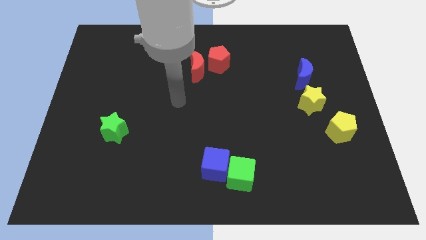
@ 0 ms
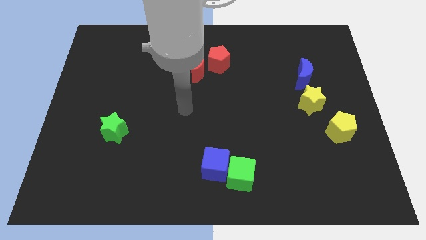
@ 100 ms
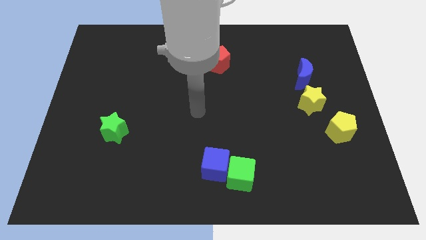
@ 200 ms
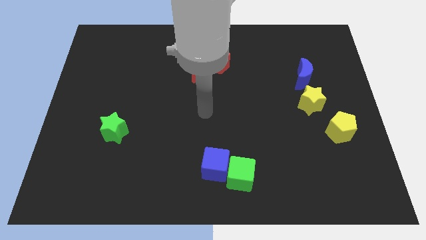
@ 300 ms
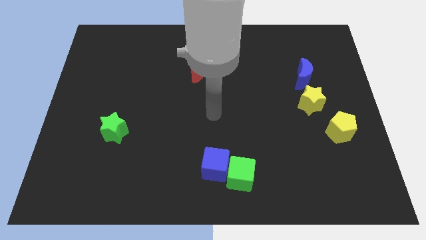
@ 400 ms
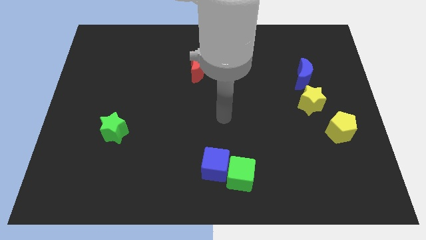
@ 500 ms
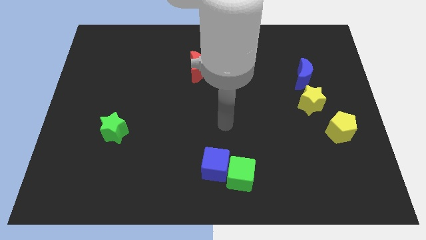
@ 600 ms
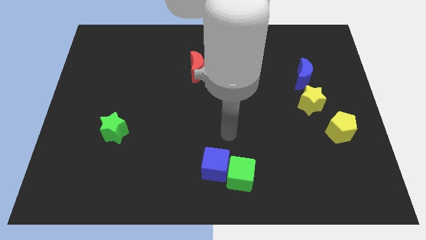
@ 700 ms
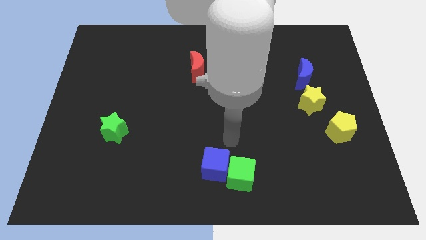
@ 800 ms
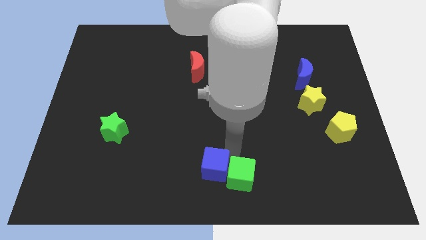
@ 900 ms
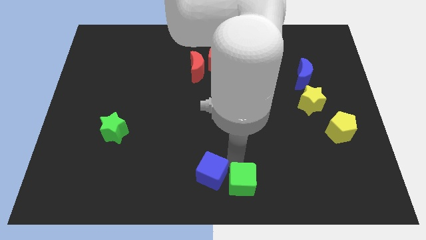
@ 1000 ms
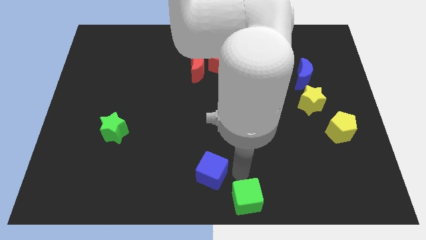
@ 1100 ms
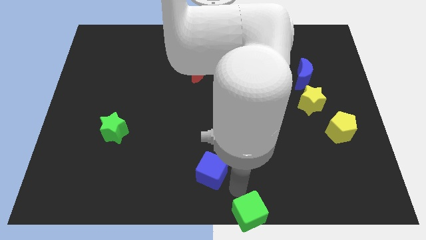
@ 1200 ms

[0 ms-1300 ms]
move the blue cube away from the green cube

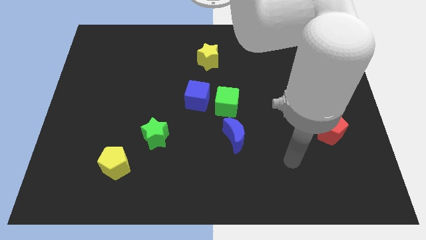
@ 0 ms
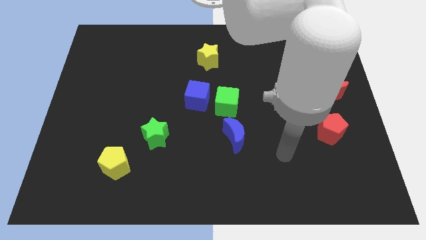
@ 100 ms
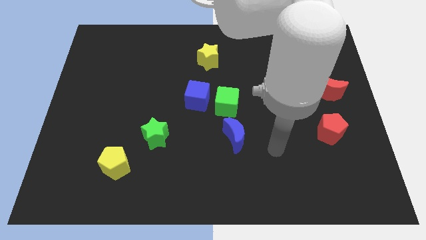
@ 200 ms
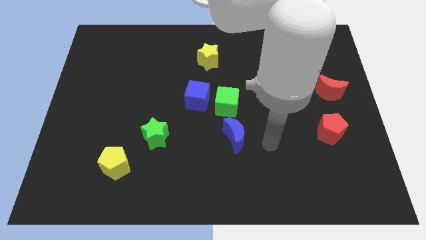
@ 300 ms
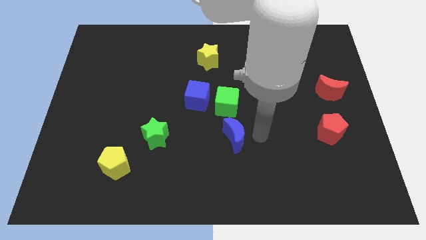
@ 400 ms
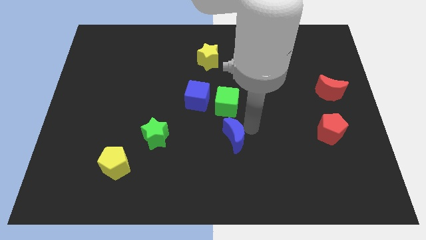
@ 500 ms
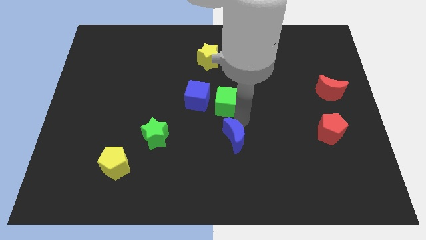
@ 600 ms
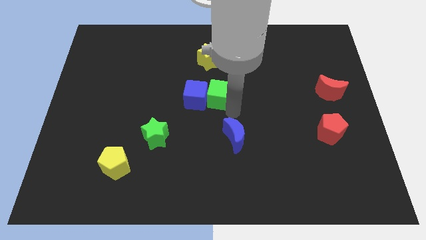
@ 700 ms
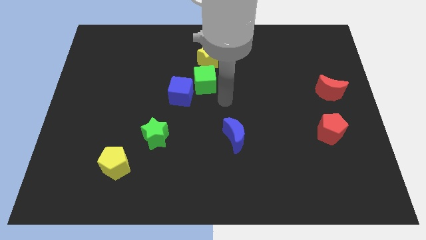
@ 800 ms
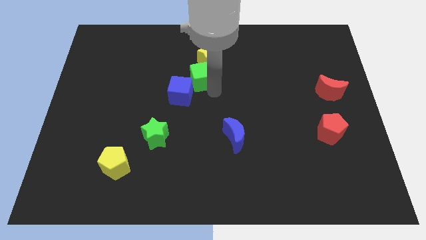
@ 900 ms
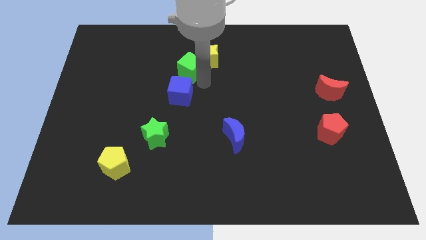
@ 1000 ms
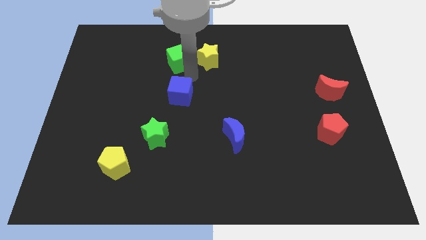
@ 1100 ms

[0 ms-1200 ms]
separate the blue cube from the green cube

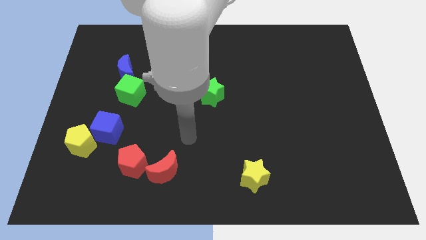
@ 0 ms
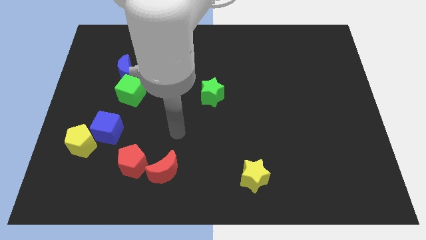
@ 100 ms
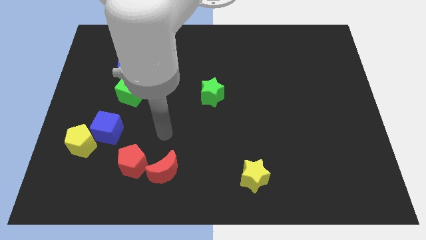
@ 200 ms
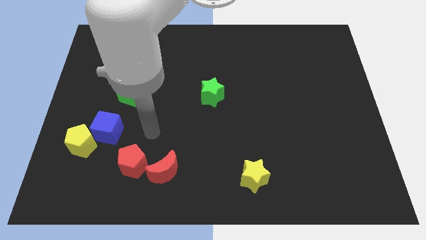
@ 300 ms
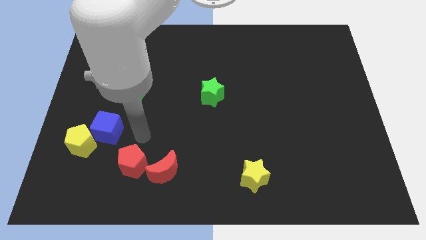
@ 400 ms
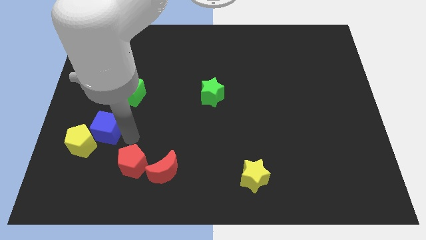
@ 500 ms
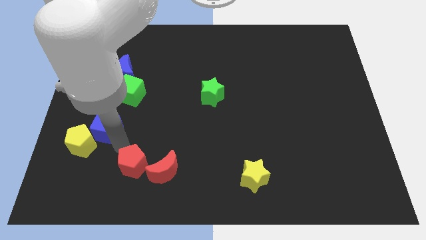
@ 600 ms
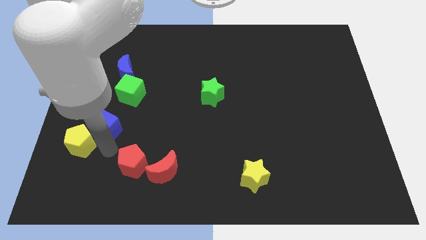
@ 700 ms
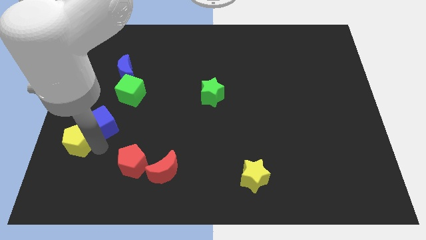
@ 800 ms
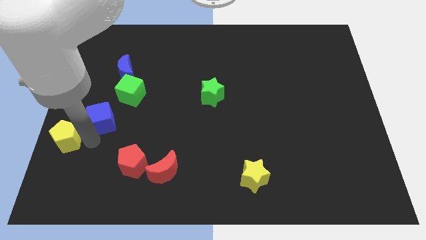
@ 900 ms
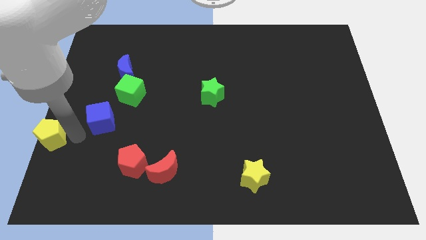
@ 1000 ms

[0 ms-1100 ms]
separate the blue cube from the yellow pentagon

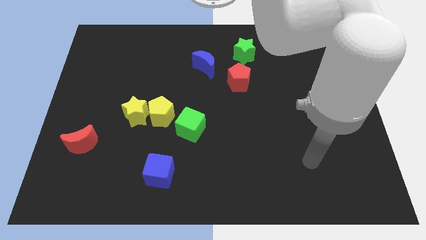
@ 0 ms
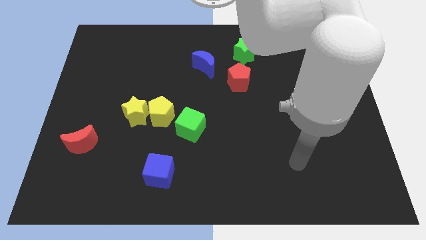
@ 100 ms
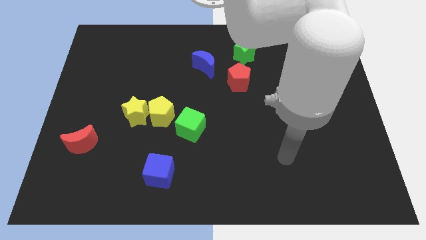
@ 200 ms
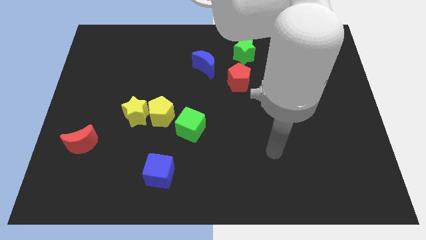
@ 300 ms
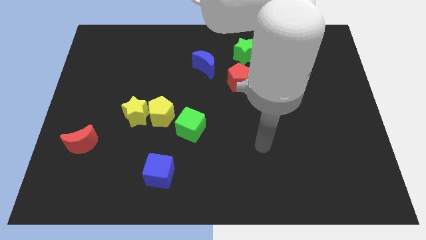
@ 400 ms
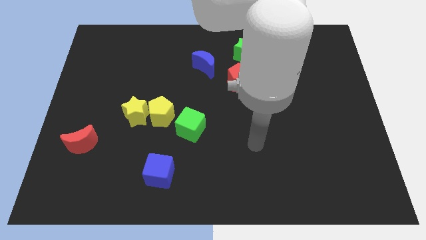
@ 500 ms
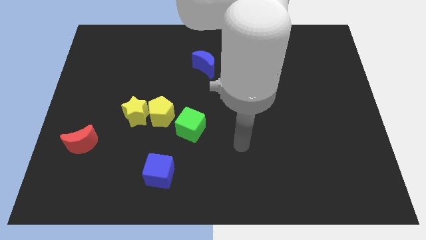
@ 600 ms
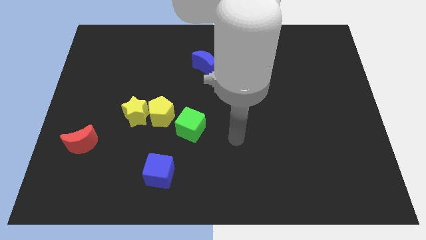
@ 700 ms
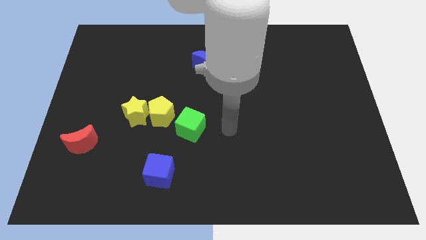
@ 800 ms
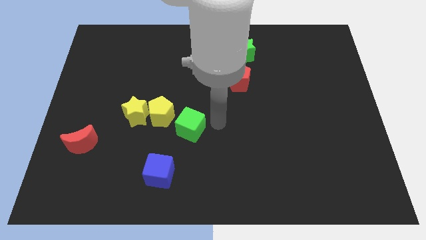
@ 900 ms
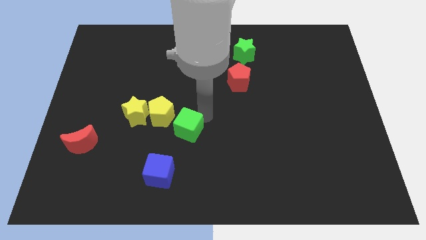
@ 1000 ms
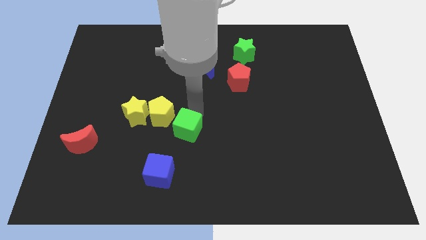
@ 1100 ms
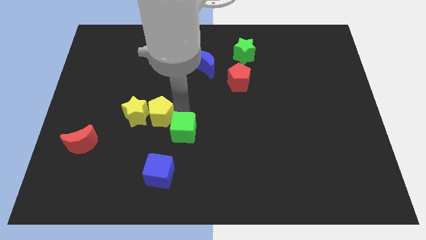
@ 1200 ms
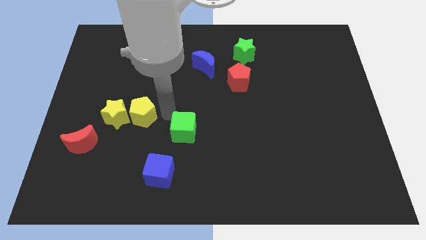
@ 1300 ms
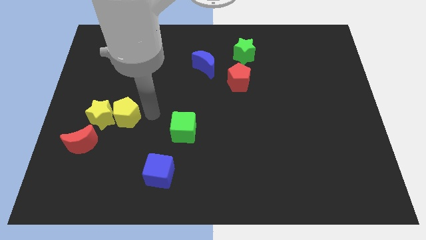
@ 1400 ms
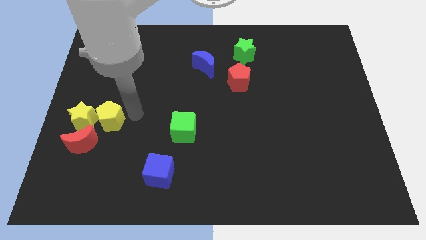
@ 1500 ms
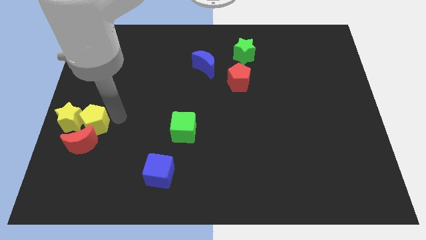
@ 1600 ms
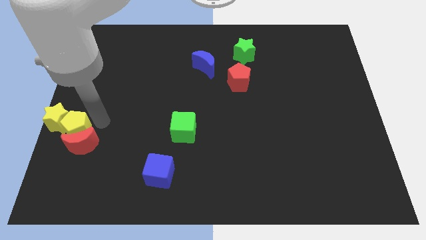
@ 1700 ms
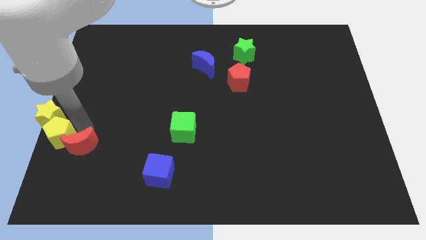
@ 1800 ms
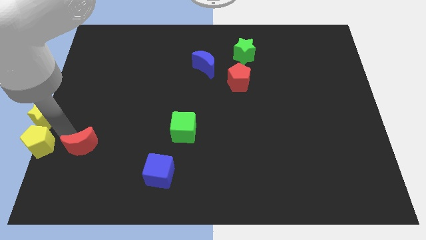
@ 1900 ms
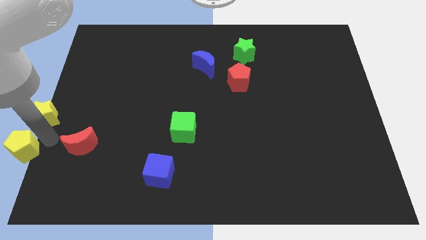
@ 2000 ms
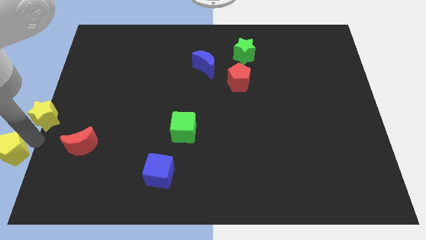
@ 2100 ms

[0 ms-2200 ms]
move the yellow star away from the yellow pentagon

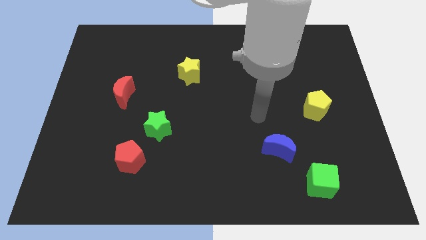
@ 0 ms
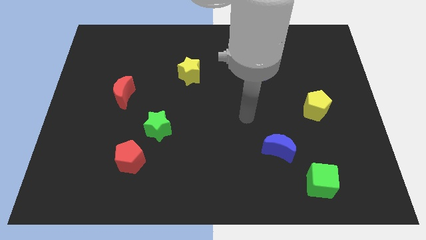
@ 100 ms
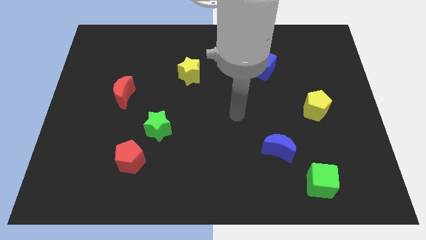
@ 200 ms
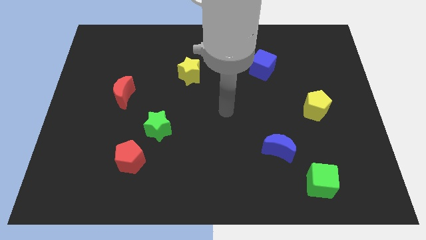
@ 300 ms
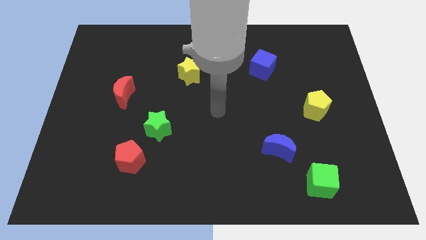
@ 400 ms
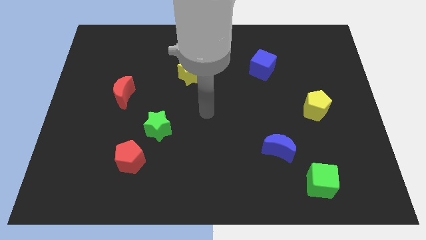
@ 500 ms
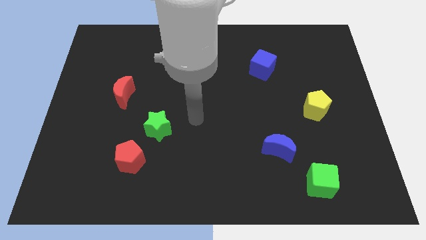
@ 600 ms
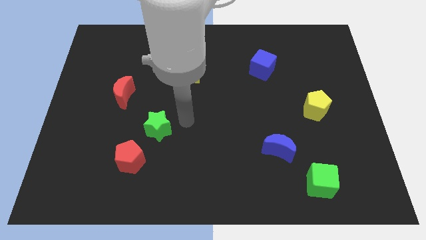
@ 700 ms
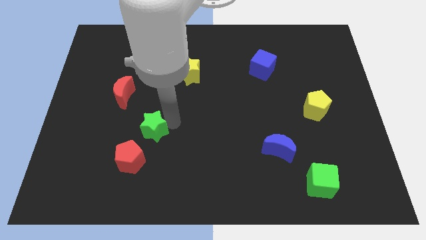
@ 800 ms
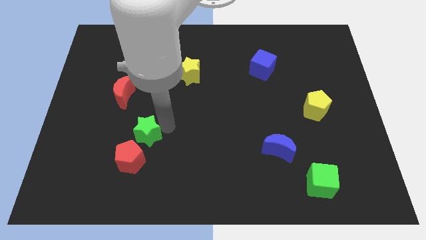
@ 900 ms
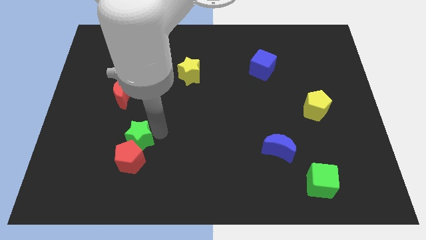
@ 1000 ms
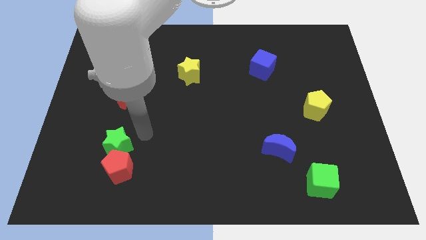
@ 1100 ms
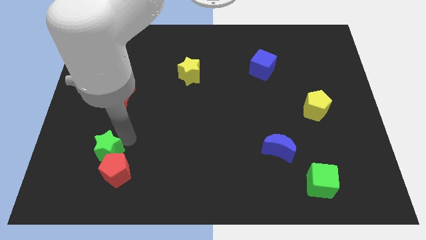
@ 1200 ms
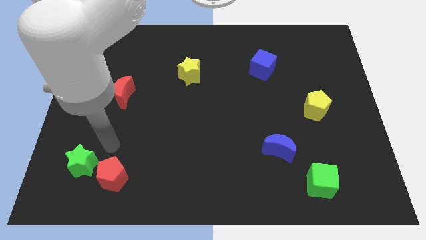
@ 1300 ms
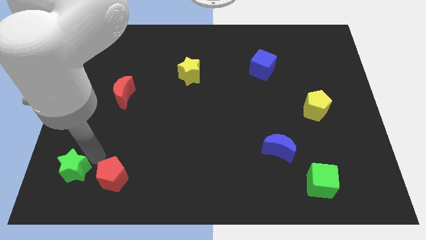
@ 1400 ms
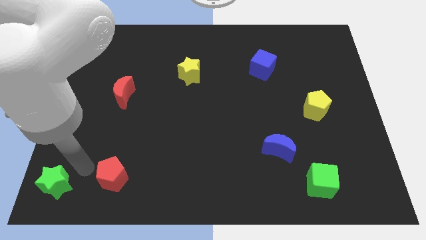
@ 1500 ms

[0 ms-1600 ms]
move the red pentagon away from the green star

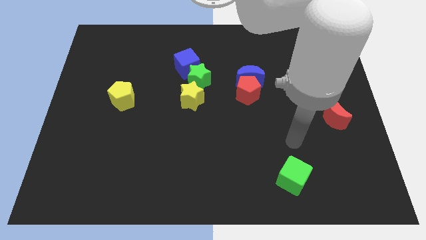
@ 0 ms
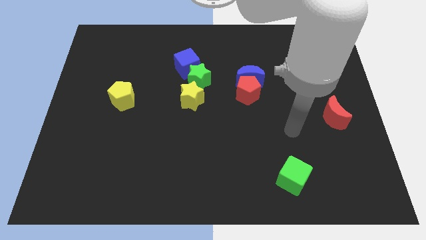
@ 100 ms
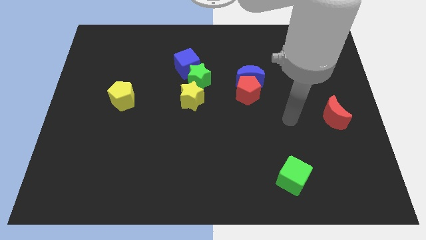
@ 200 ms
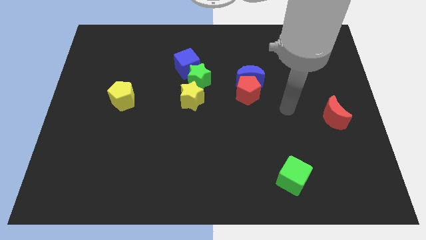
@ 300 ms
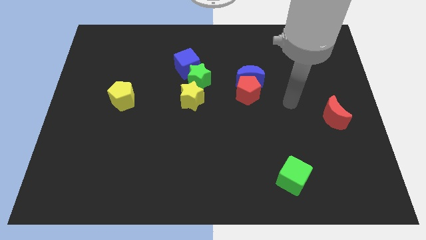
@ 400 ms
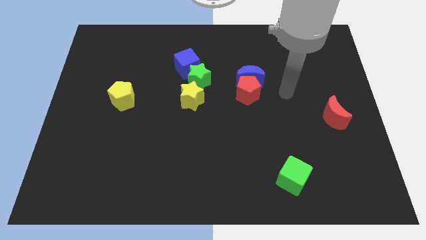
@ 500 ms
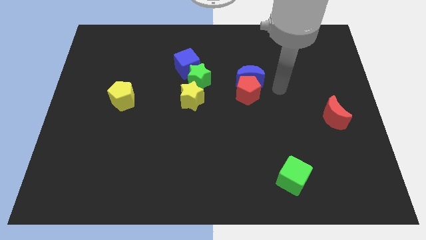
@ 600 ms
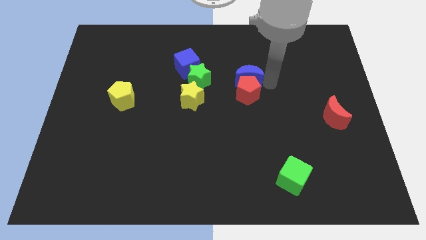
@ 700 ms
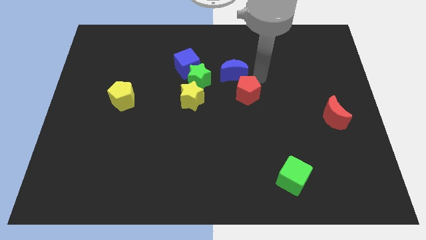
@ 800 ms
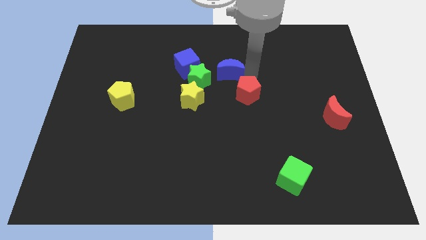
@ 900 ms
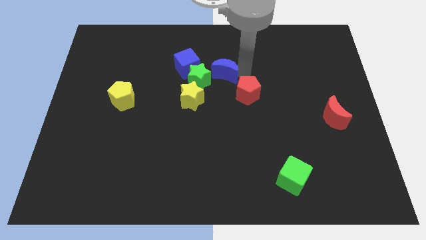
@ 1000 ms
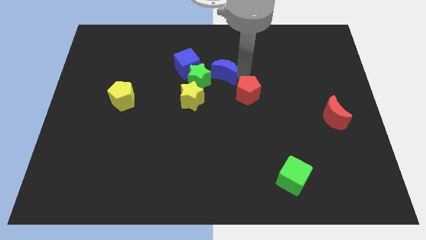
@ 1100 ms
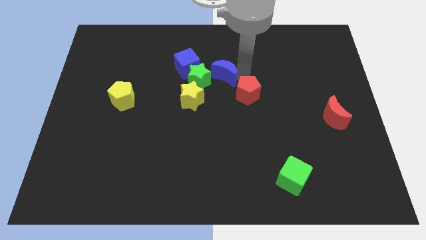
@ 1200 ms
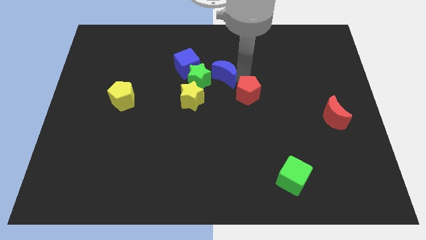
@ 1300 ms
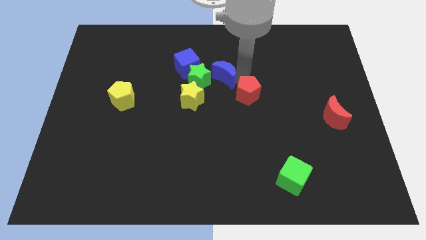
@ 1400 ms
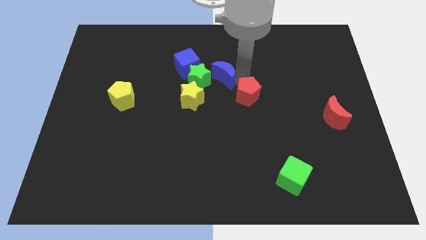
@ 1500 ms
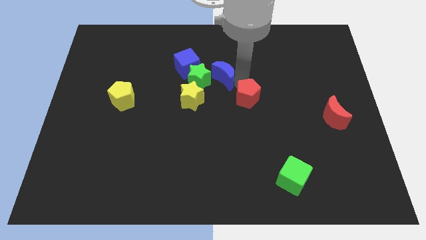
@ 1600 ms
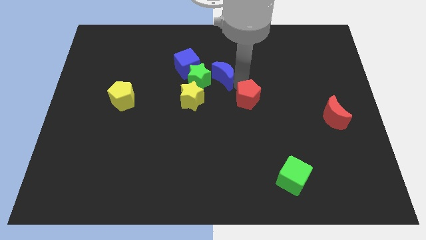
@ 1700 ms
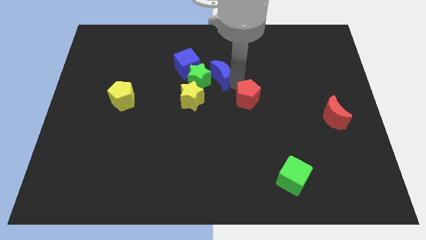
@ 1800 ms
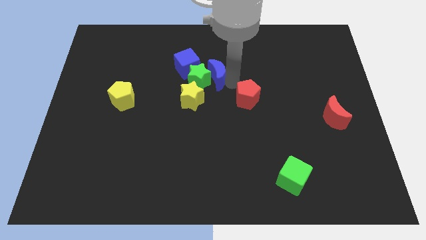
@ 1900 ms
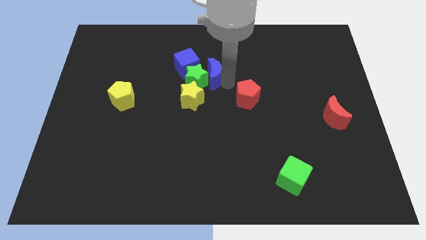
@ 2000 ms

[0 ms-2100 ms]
separate the red pentagon from the blue moon
